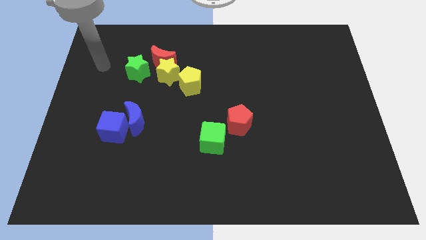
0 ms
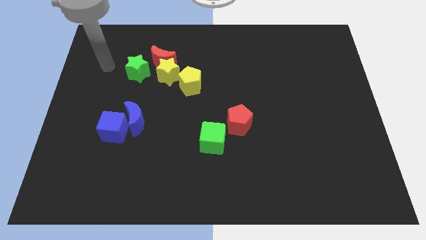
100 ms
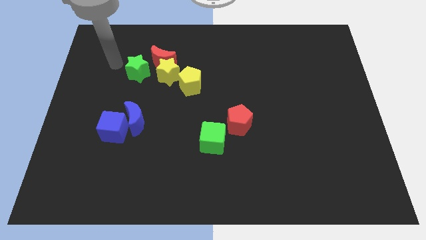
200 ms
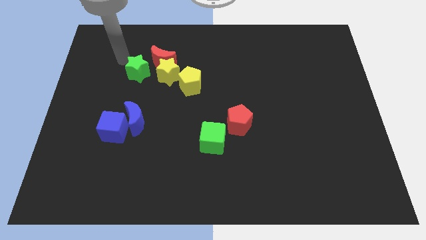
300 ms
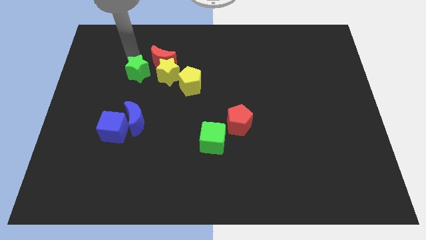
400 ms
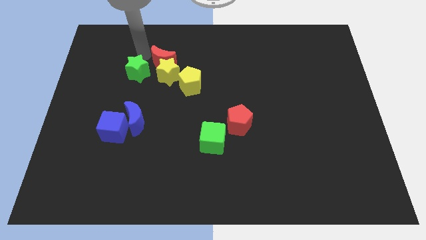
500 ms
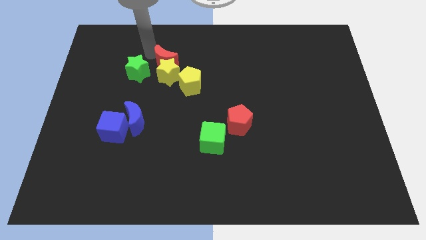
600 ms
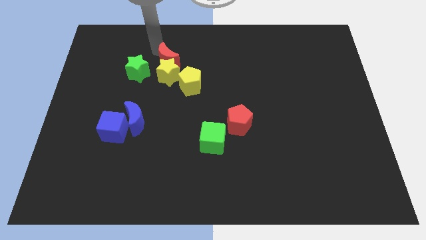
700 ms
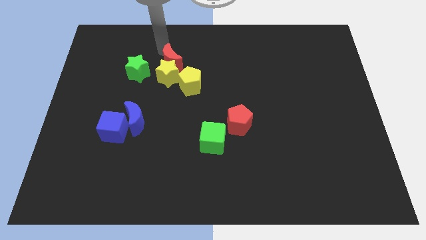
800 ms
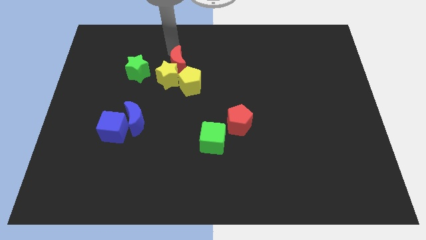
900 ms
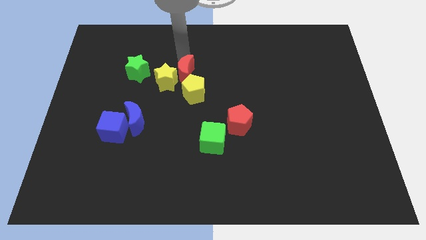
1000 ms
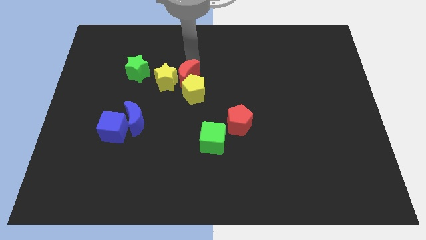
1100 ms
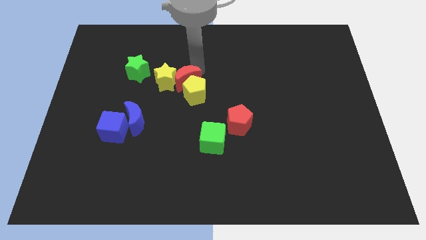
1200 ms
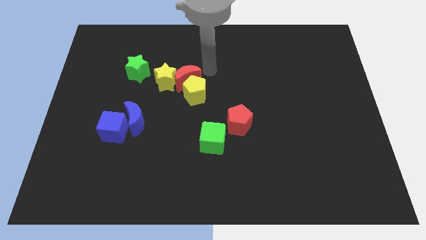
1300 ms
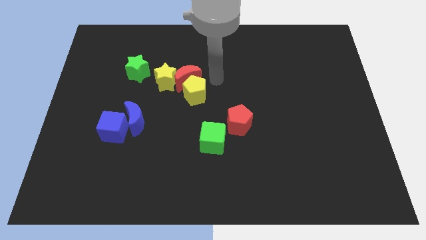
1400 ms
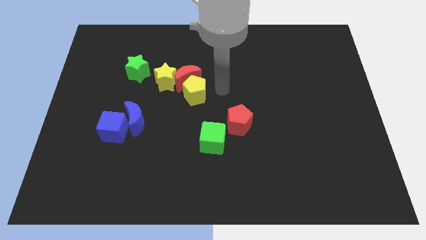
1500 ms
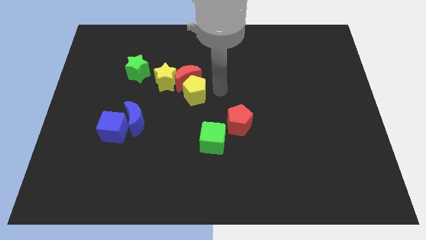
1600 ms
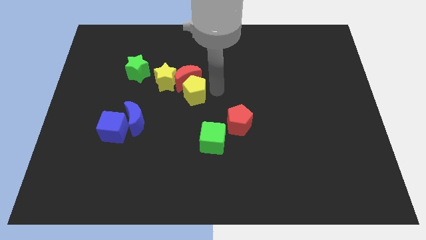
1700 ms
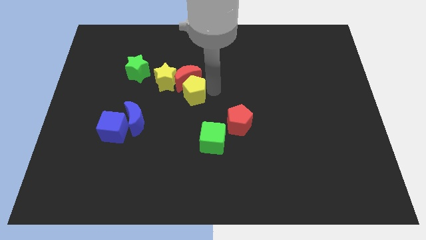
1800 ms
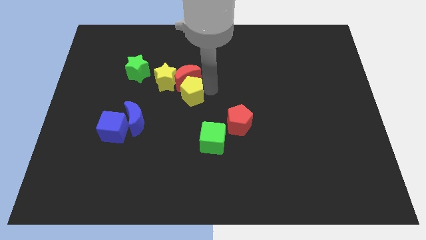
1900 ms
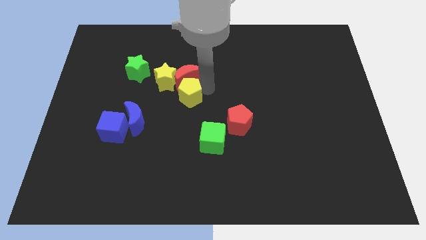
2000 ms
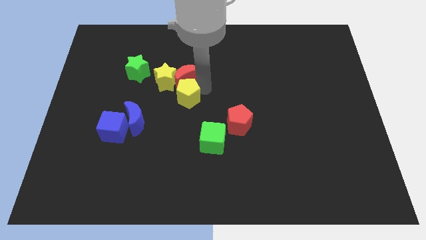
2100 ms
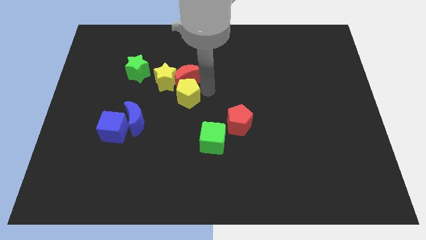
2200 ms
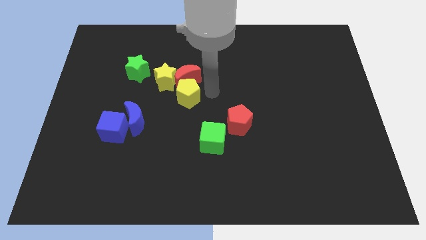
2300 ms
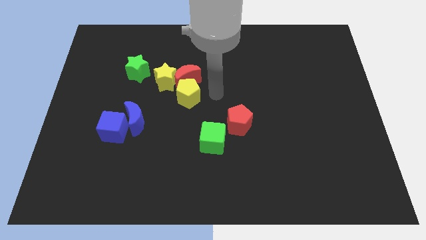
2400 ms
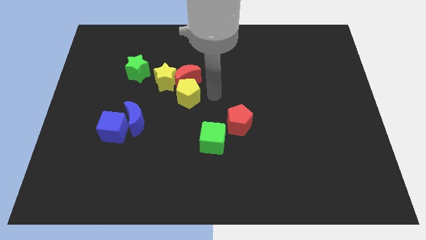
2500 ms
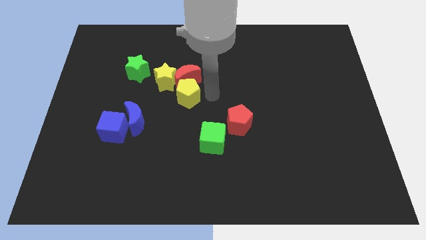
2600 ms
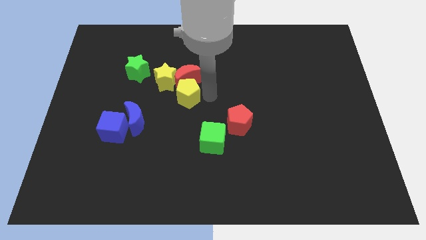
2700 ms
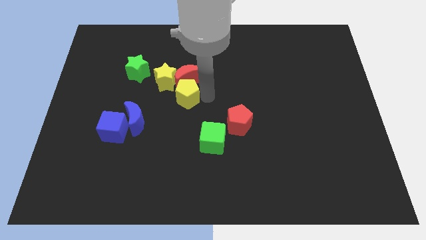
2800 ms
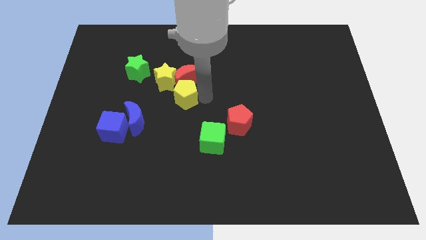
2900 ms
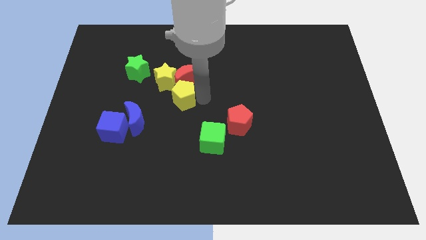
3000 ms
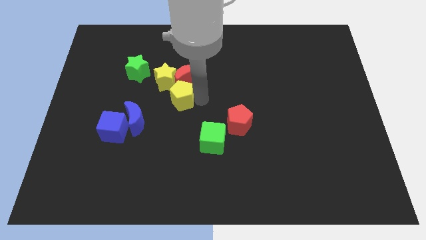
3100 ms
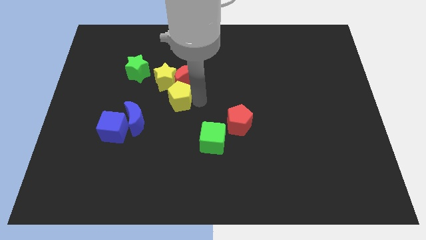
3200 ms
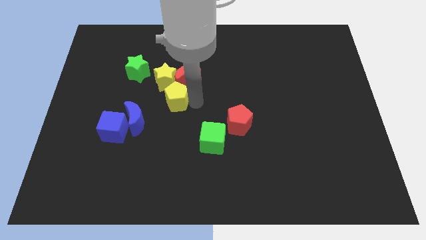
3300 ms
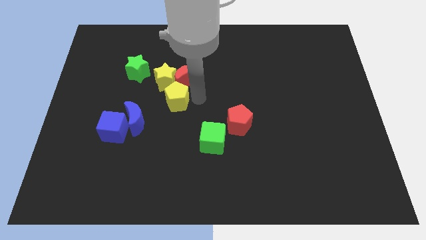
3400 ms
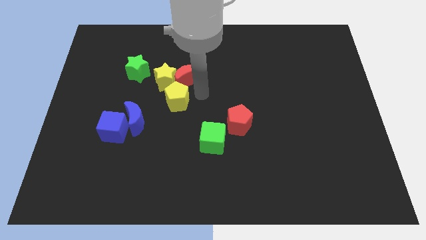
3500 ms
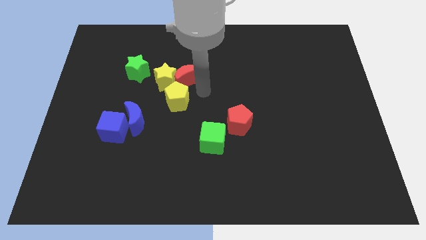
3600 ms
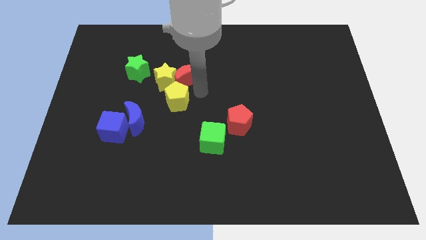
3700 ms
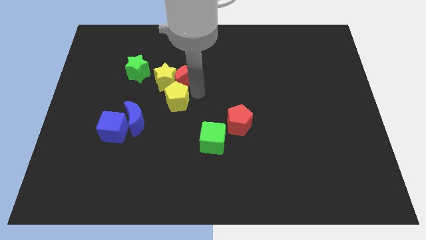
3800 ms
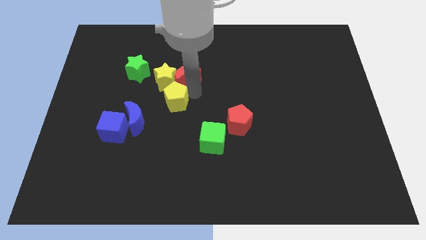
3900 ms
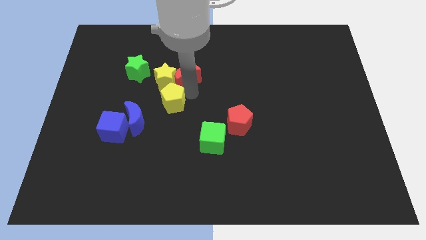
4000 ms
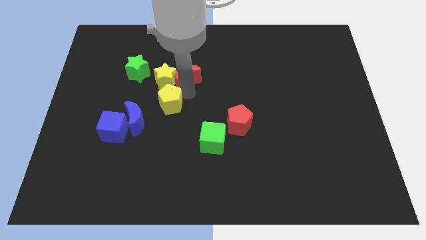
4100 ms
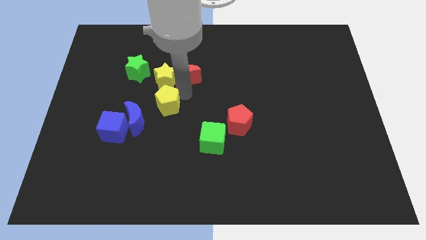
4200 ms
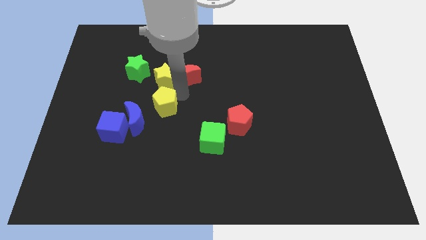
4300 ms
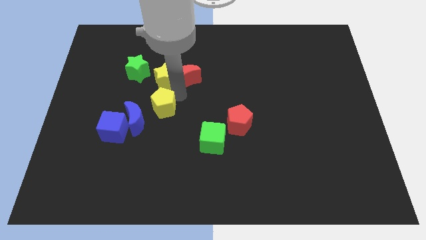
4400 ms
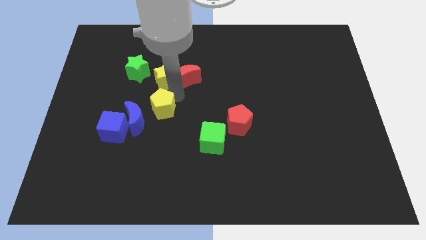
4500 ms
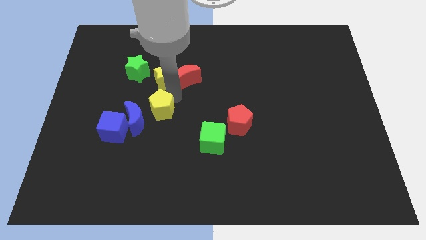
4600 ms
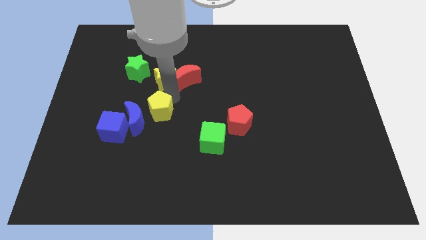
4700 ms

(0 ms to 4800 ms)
move the yellow pentagon to the blue moon

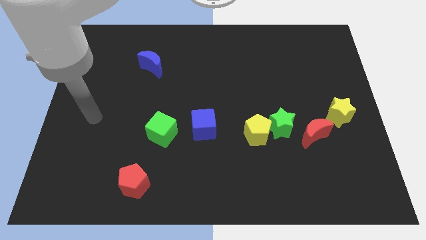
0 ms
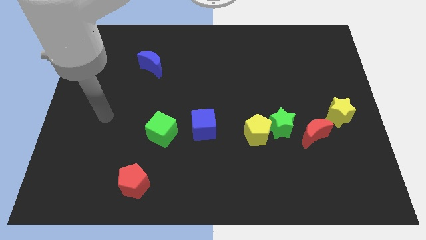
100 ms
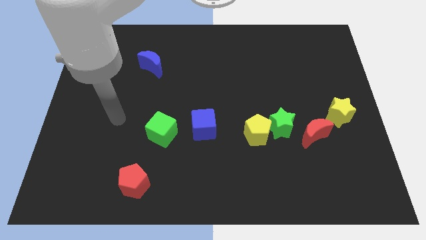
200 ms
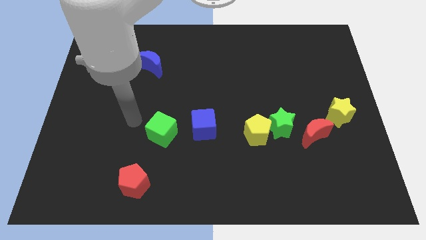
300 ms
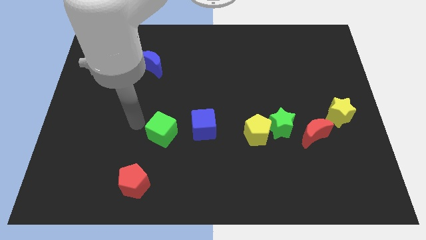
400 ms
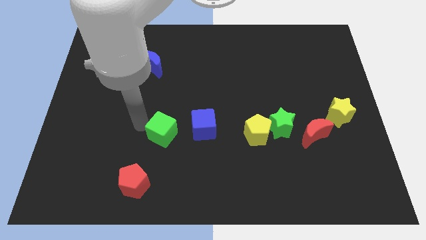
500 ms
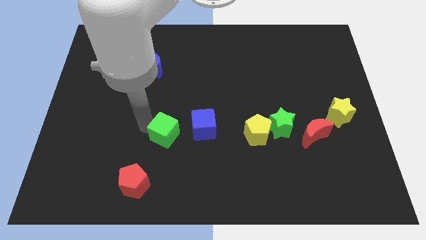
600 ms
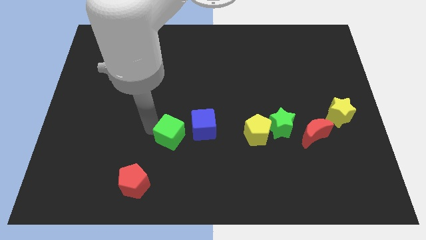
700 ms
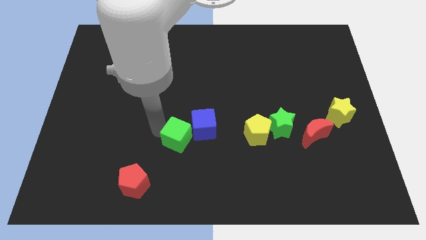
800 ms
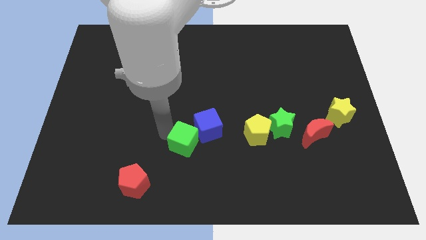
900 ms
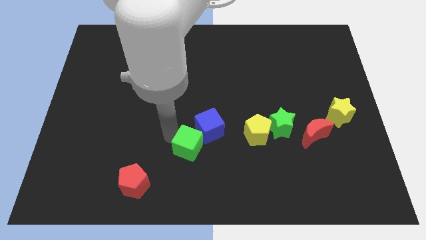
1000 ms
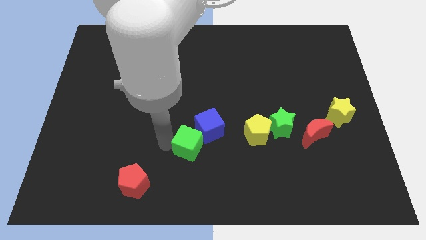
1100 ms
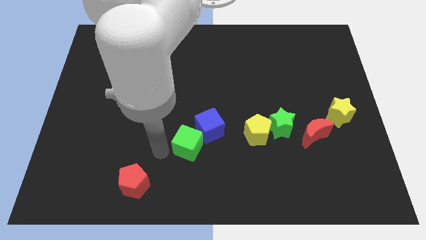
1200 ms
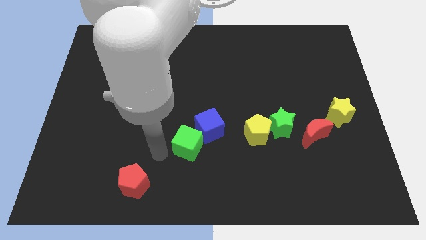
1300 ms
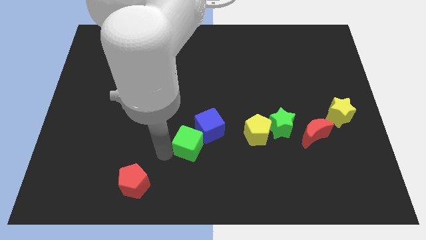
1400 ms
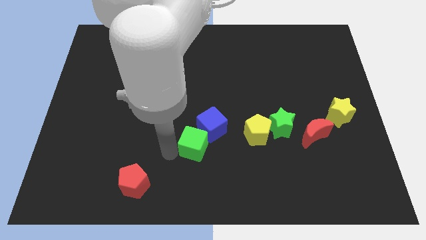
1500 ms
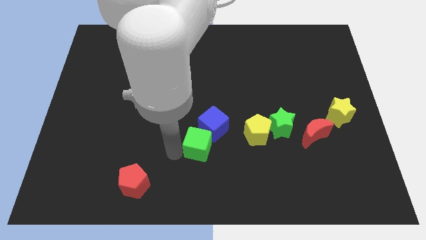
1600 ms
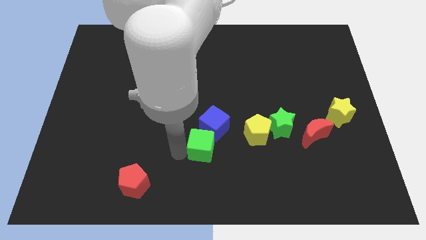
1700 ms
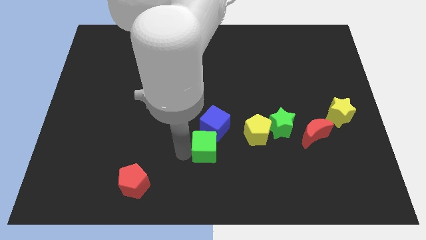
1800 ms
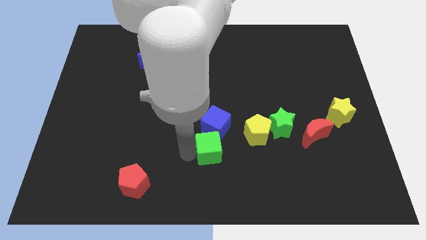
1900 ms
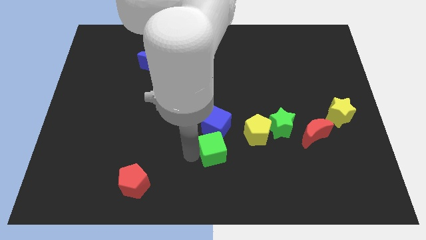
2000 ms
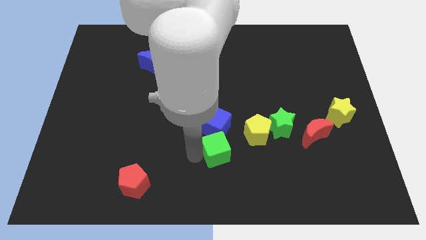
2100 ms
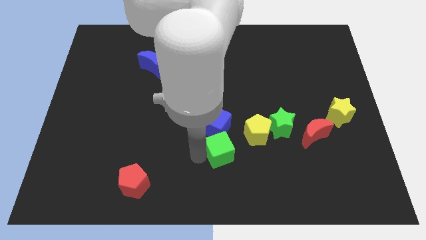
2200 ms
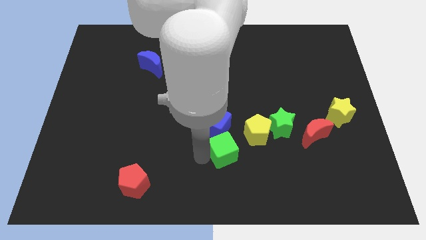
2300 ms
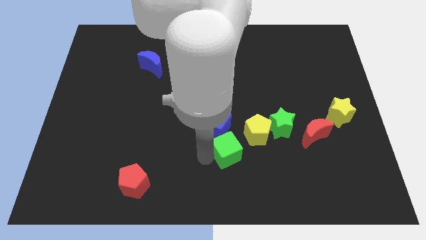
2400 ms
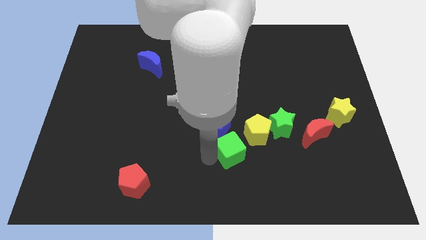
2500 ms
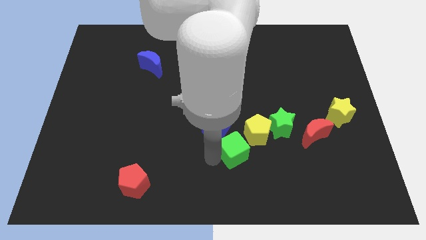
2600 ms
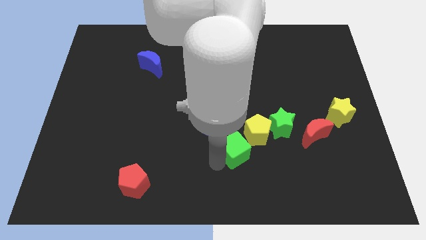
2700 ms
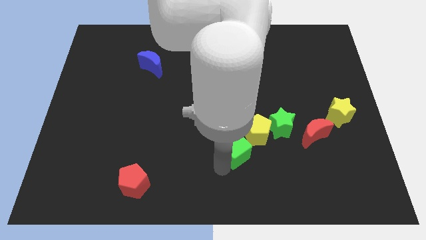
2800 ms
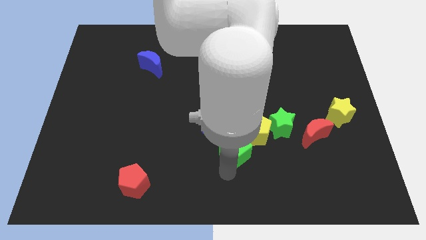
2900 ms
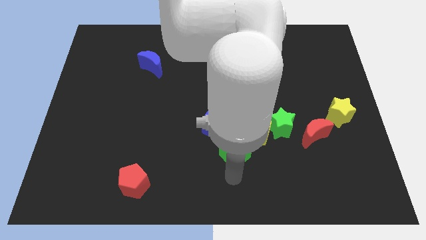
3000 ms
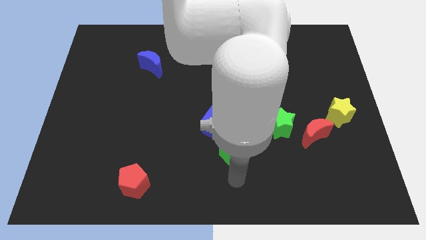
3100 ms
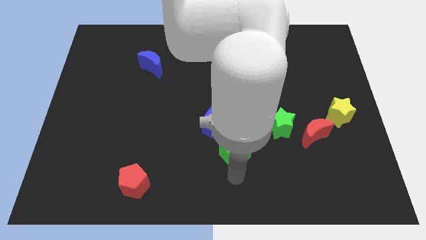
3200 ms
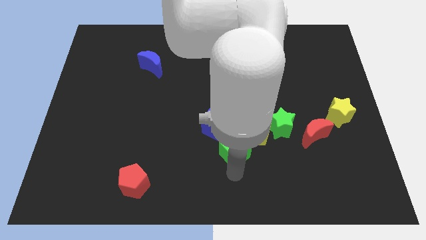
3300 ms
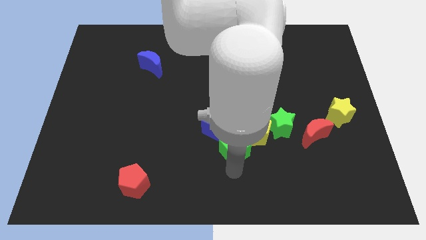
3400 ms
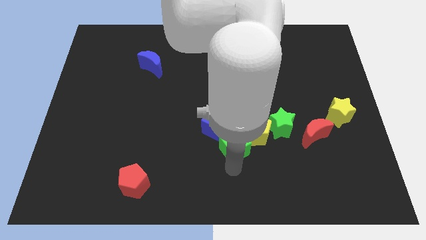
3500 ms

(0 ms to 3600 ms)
push the green cube to the yellow pentagon
